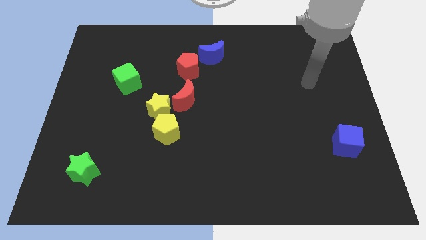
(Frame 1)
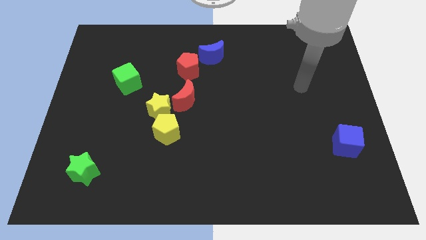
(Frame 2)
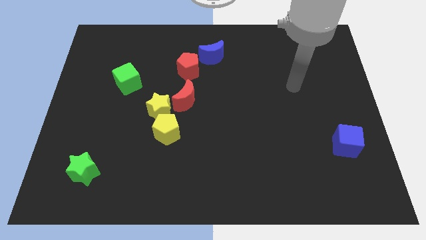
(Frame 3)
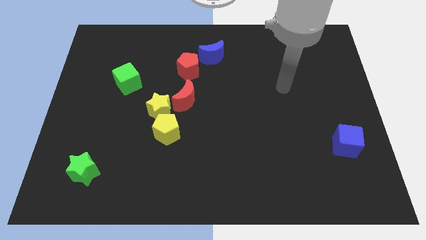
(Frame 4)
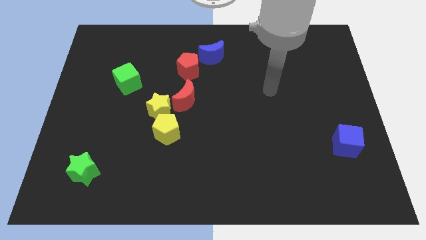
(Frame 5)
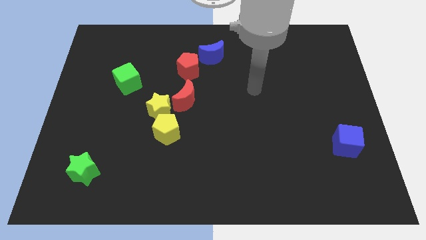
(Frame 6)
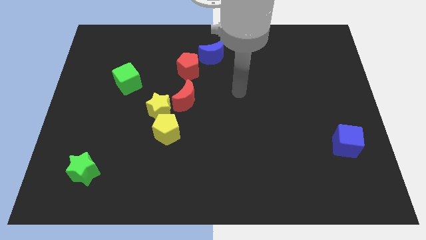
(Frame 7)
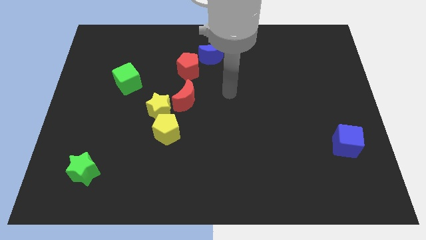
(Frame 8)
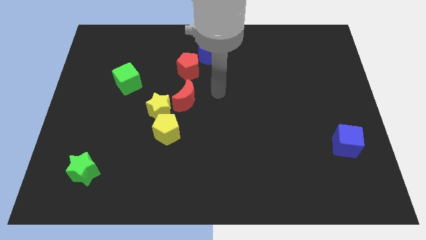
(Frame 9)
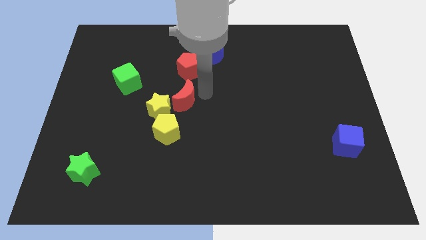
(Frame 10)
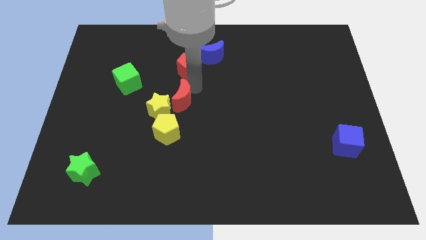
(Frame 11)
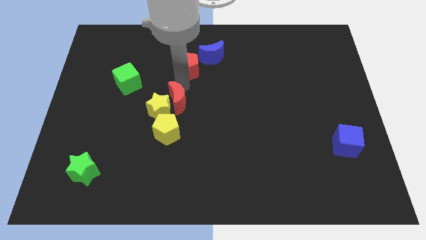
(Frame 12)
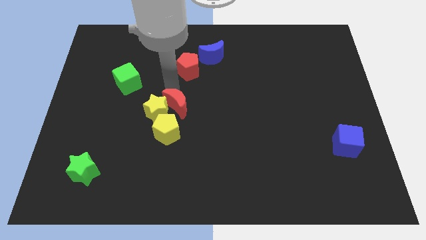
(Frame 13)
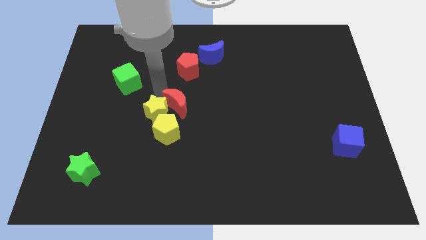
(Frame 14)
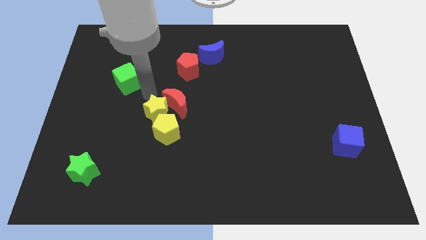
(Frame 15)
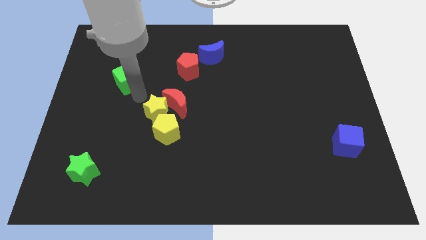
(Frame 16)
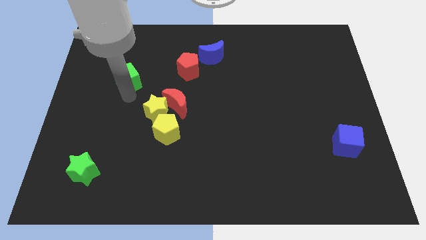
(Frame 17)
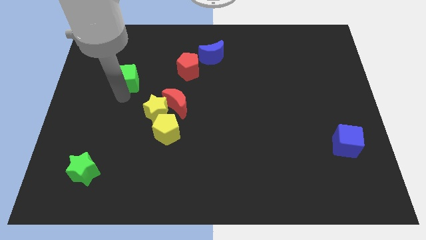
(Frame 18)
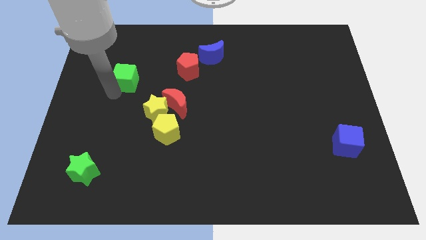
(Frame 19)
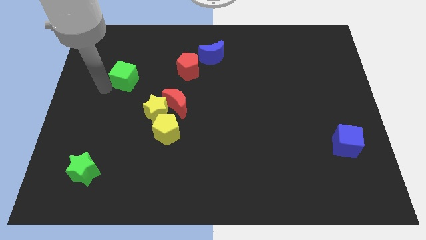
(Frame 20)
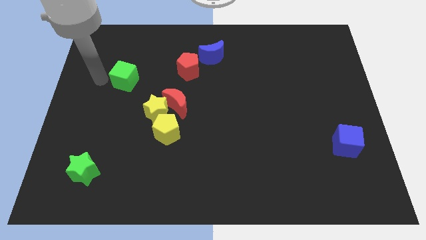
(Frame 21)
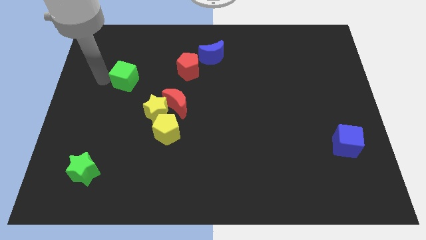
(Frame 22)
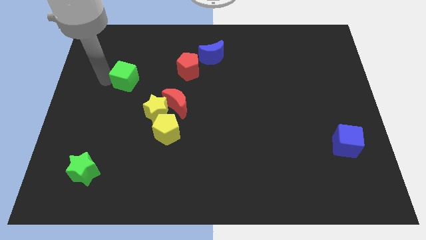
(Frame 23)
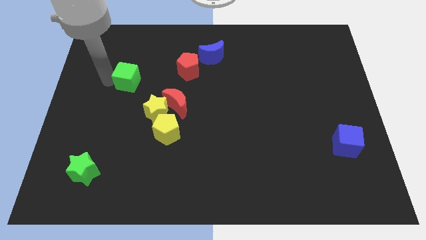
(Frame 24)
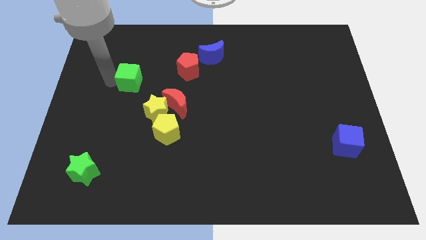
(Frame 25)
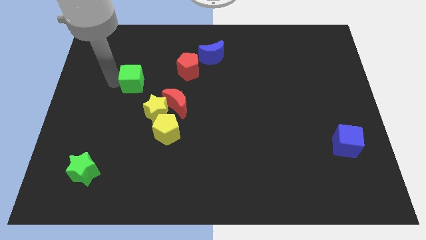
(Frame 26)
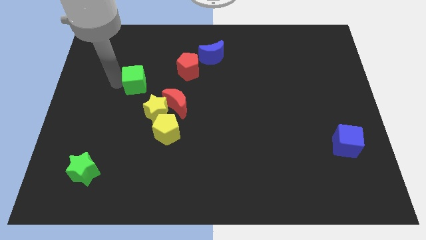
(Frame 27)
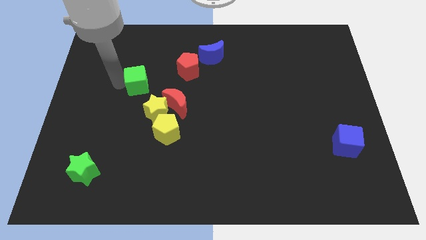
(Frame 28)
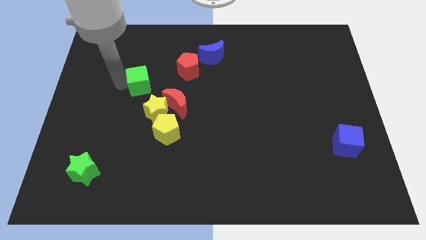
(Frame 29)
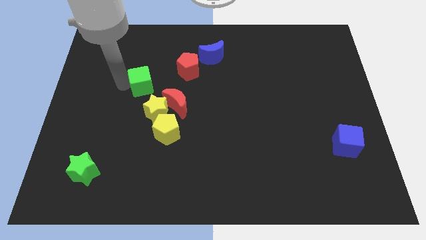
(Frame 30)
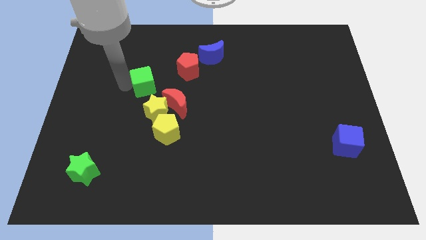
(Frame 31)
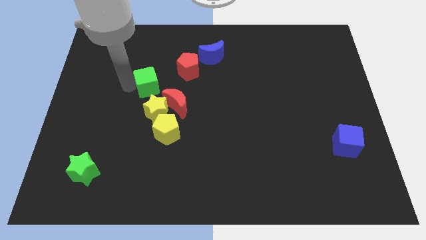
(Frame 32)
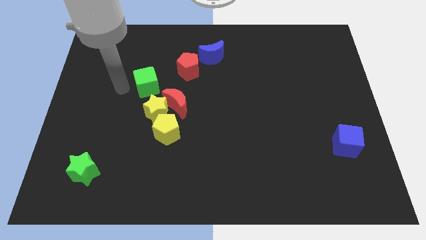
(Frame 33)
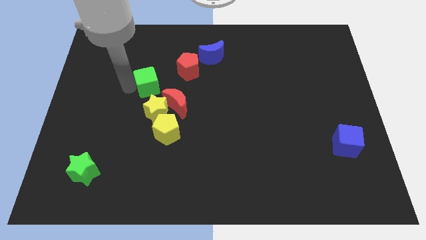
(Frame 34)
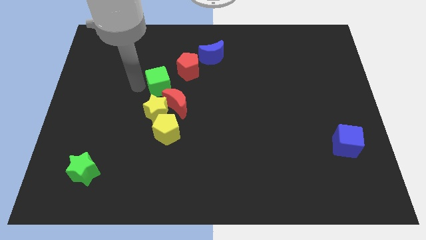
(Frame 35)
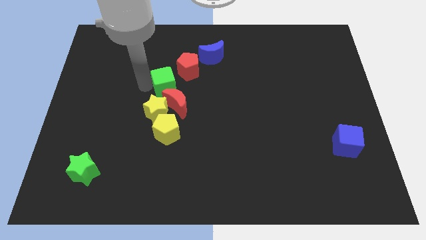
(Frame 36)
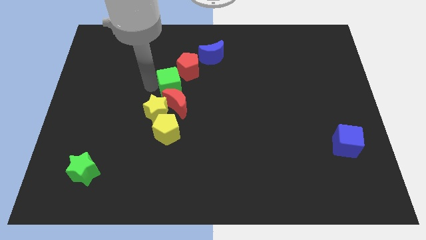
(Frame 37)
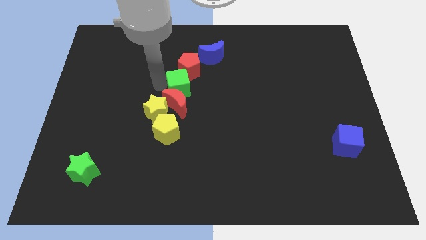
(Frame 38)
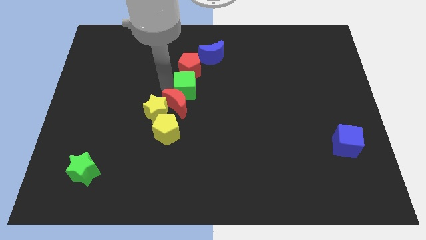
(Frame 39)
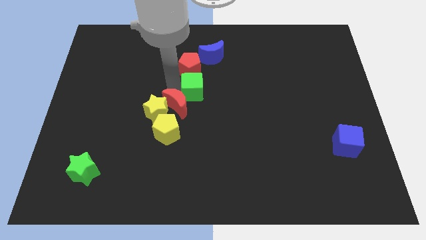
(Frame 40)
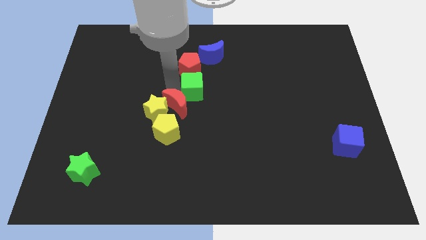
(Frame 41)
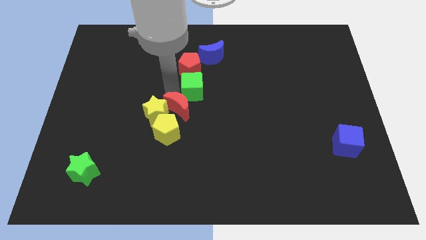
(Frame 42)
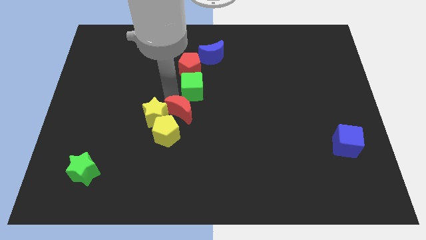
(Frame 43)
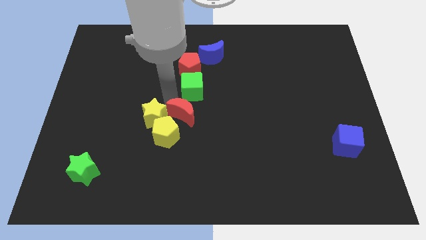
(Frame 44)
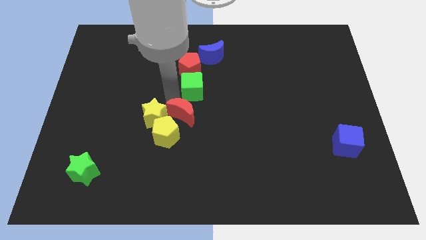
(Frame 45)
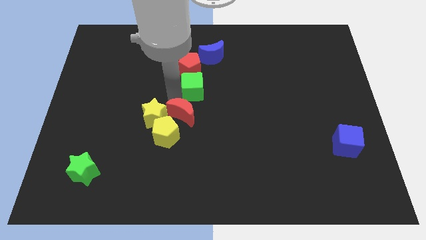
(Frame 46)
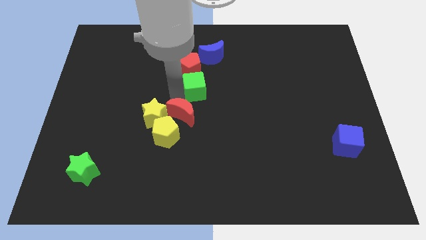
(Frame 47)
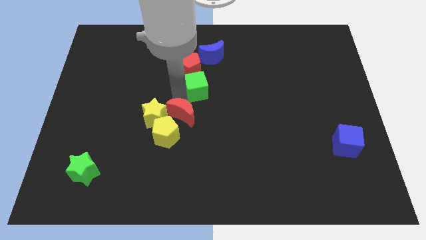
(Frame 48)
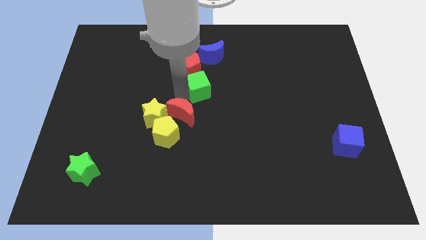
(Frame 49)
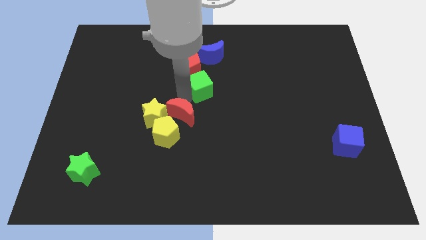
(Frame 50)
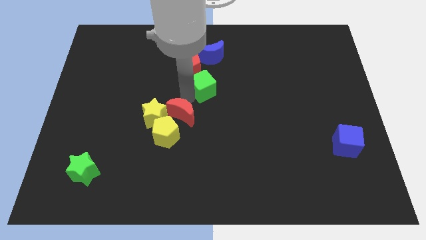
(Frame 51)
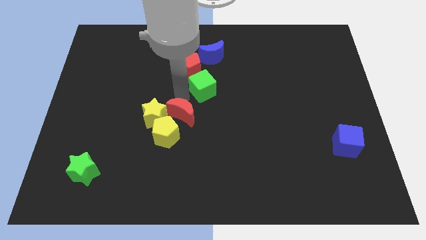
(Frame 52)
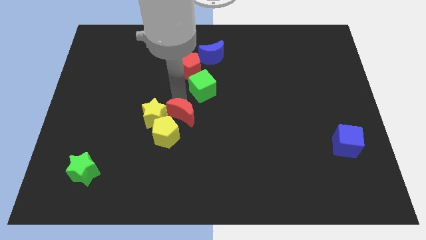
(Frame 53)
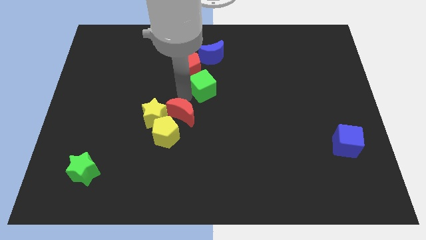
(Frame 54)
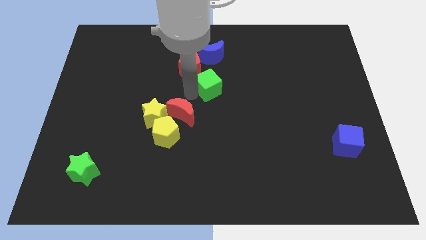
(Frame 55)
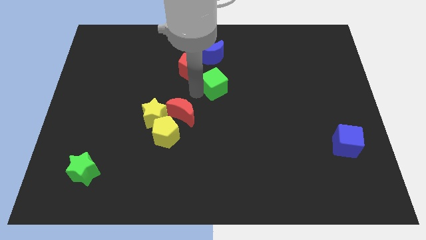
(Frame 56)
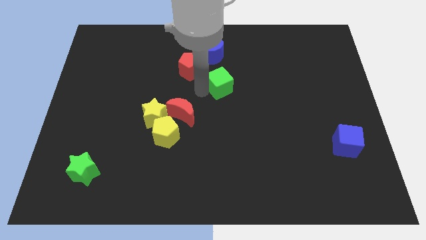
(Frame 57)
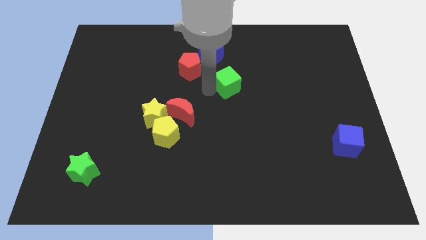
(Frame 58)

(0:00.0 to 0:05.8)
move the green cube to the bottom right side of the blue moon

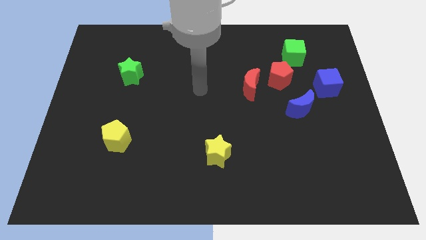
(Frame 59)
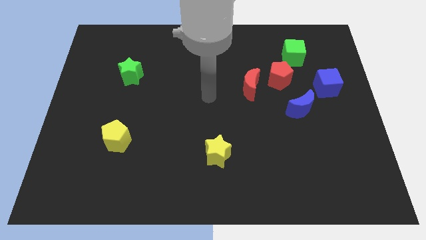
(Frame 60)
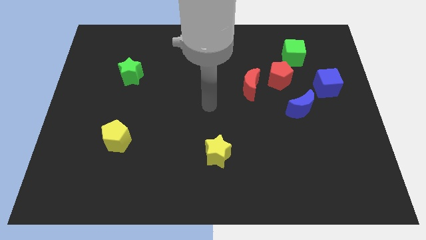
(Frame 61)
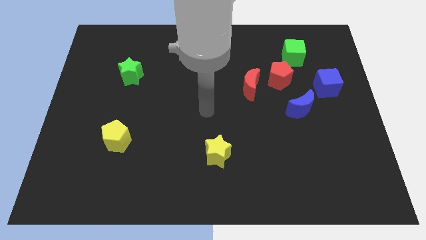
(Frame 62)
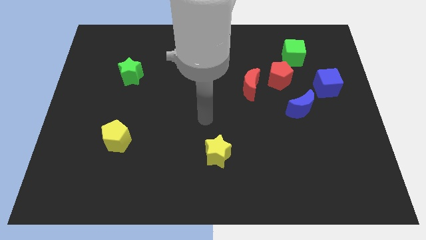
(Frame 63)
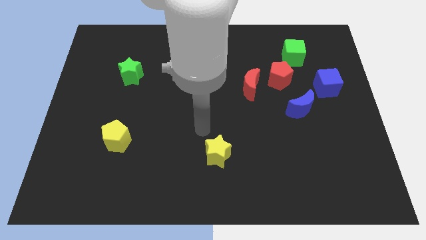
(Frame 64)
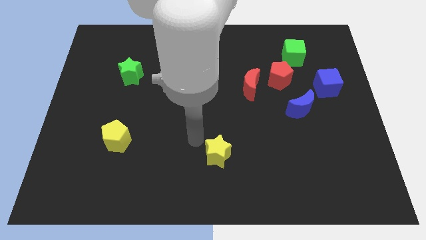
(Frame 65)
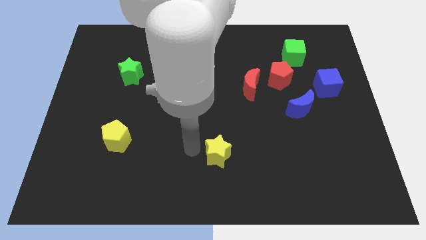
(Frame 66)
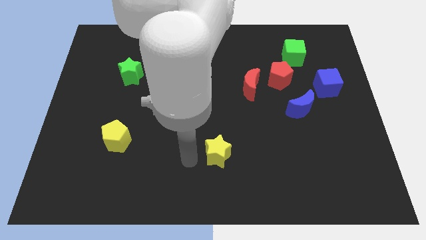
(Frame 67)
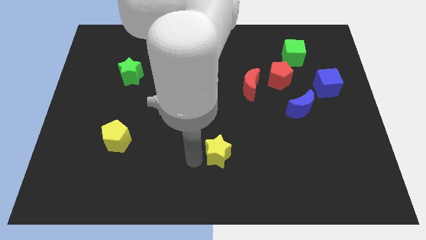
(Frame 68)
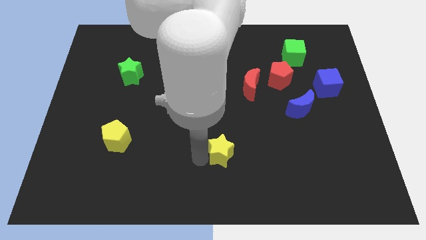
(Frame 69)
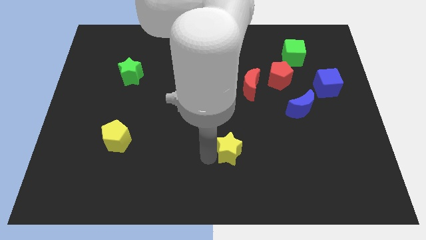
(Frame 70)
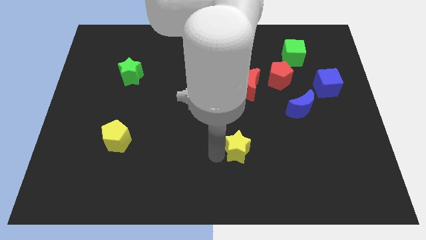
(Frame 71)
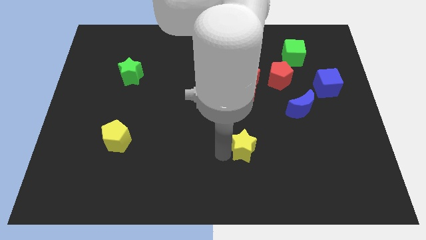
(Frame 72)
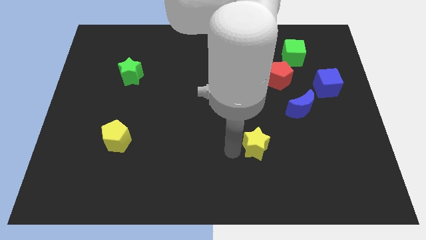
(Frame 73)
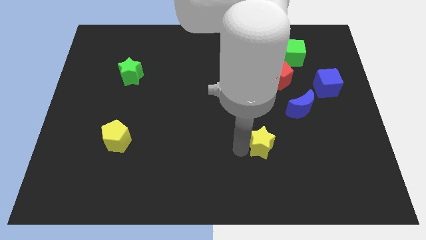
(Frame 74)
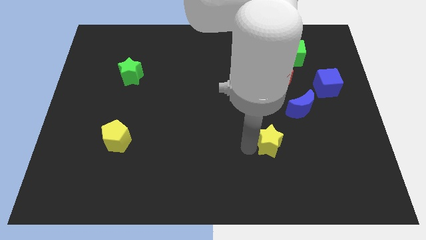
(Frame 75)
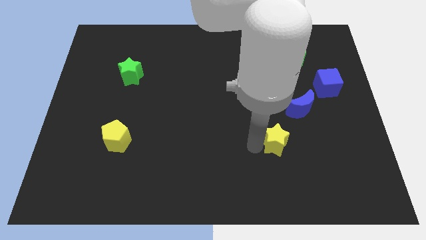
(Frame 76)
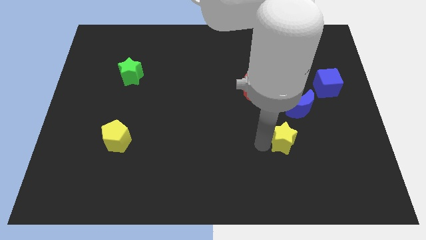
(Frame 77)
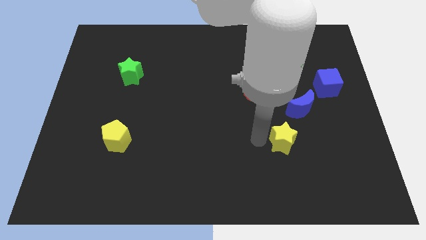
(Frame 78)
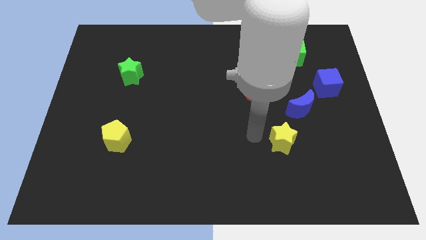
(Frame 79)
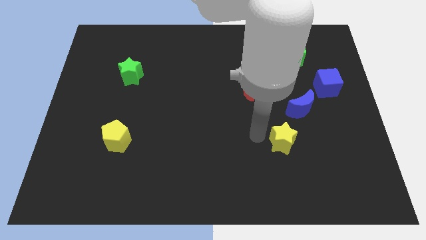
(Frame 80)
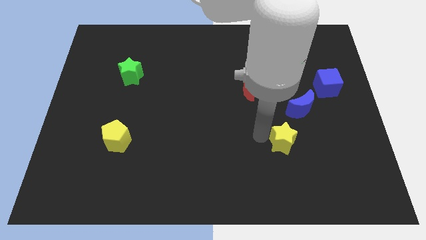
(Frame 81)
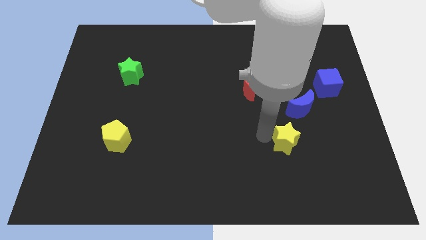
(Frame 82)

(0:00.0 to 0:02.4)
put the yellow star to the bottom of the blue moon
